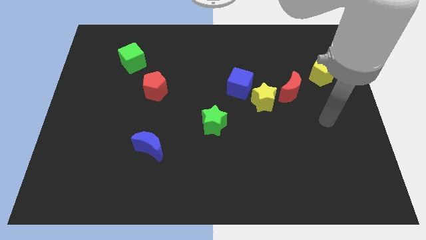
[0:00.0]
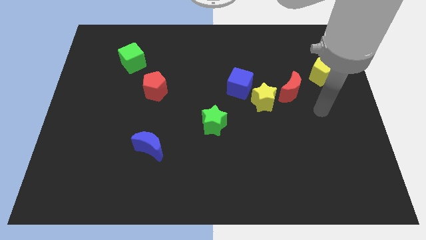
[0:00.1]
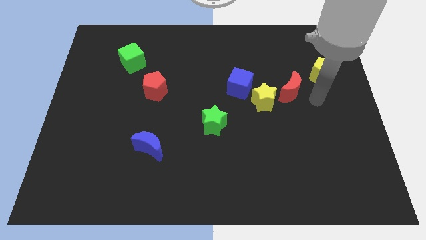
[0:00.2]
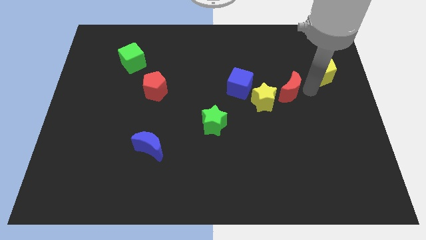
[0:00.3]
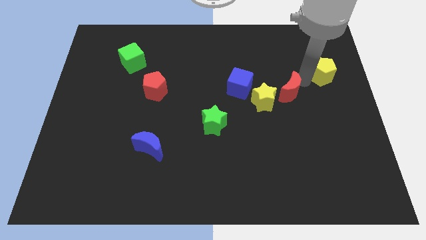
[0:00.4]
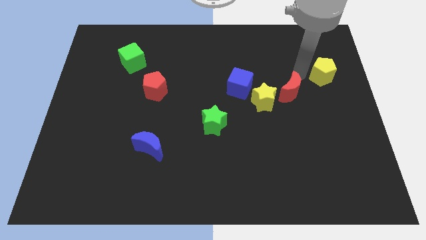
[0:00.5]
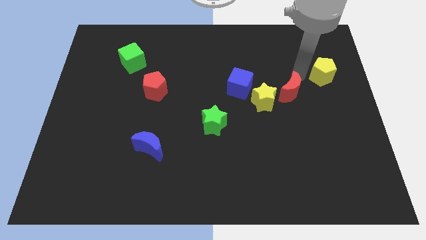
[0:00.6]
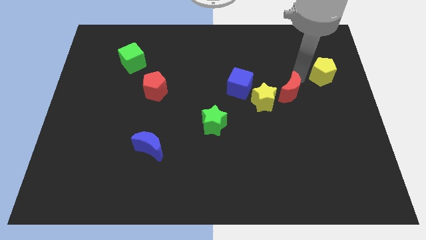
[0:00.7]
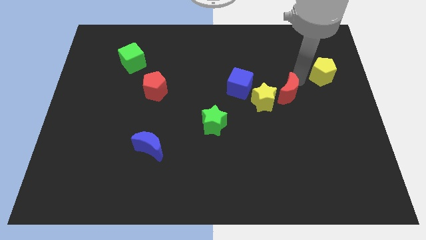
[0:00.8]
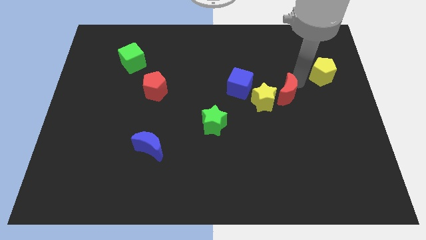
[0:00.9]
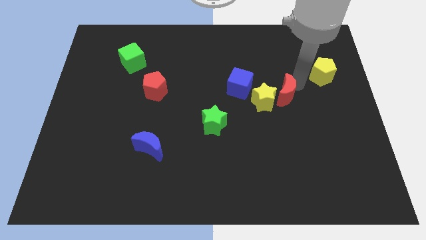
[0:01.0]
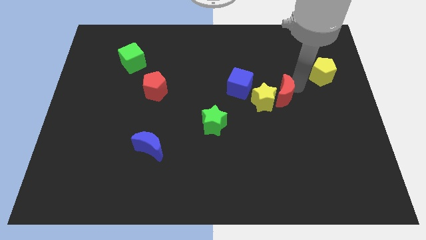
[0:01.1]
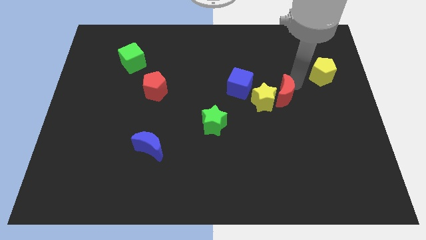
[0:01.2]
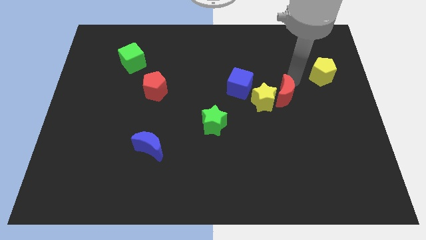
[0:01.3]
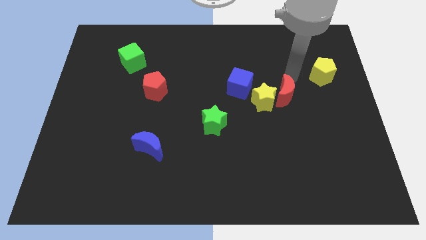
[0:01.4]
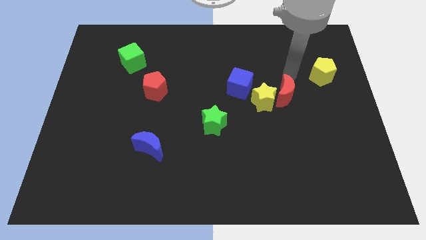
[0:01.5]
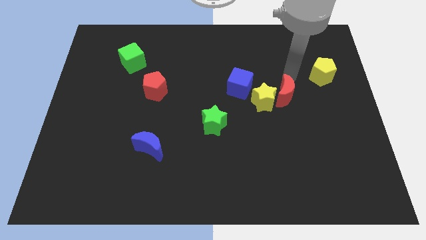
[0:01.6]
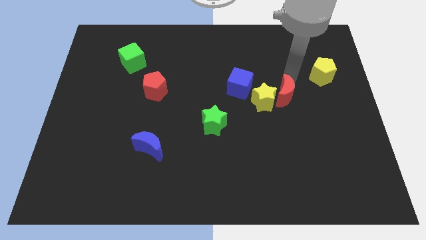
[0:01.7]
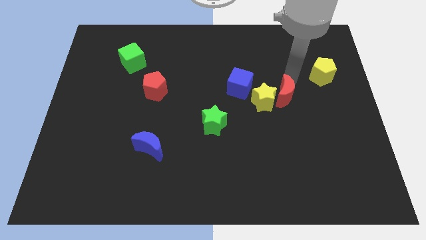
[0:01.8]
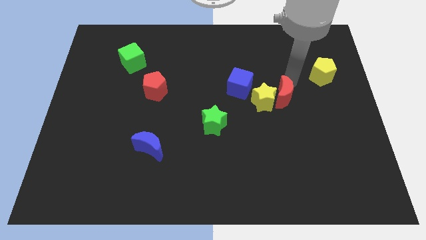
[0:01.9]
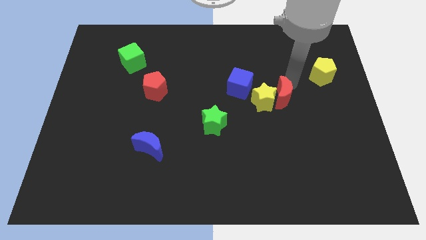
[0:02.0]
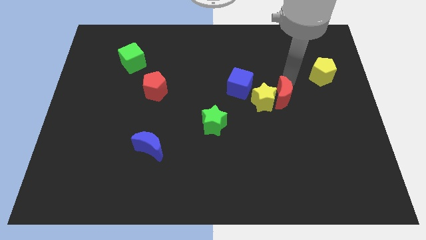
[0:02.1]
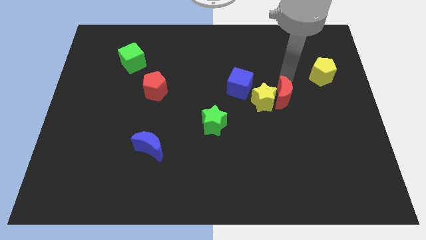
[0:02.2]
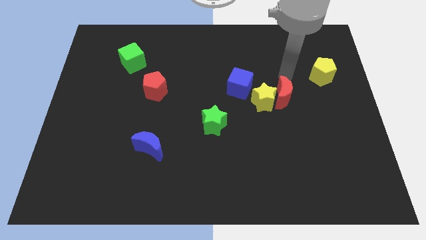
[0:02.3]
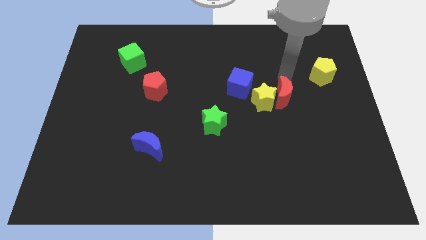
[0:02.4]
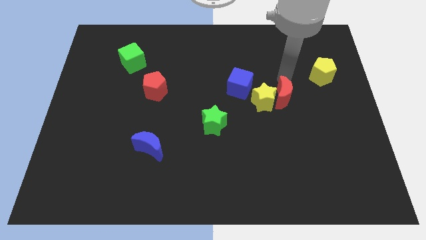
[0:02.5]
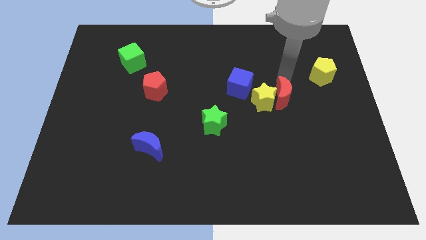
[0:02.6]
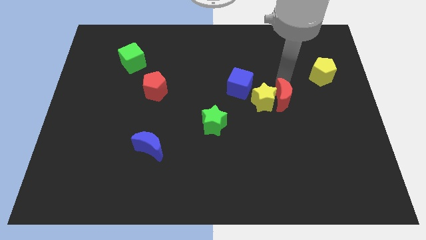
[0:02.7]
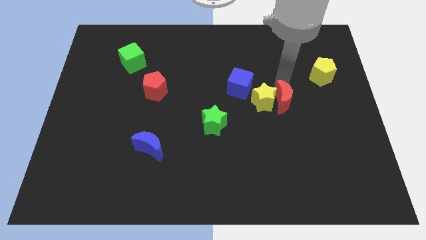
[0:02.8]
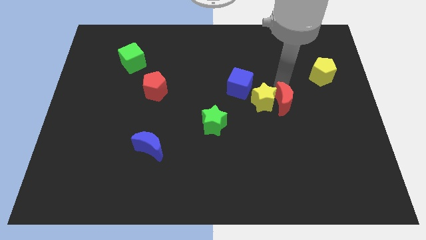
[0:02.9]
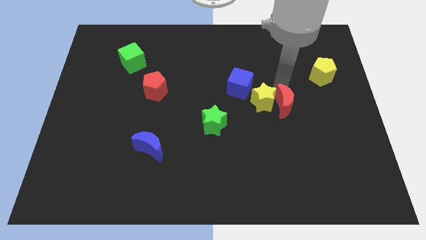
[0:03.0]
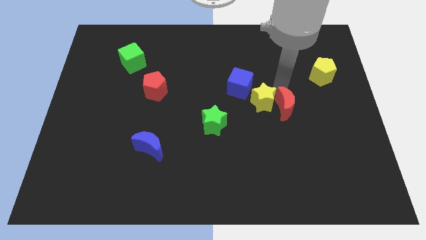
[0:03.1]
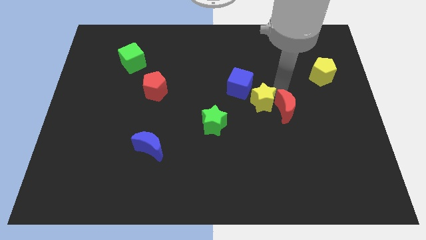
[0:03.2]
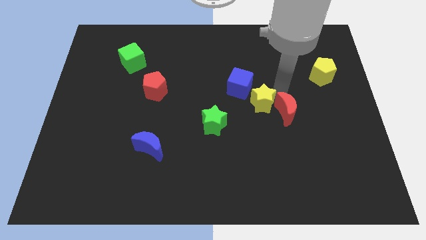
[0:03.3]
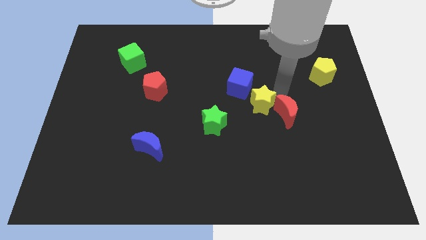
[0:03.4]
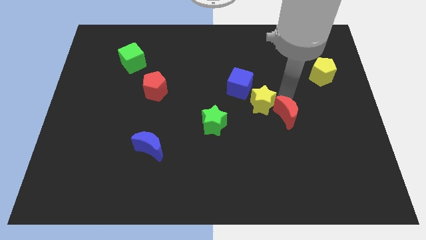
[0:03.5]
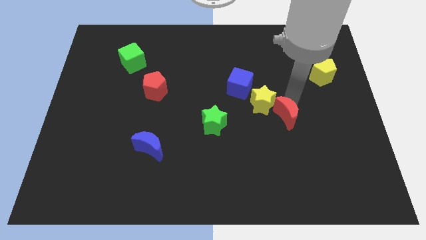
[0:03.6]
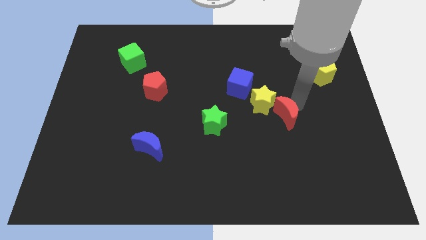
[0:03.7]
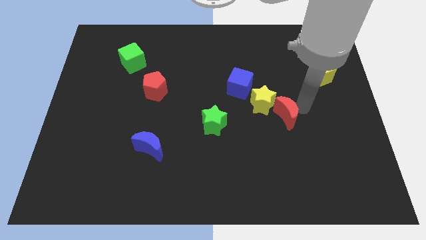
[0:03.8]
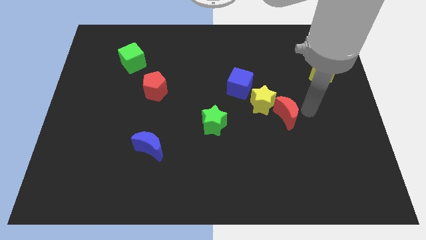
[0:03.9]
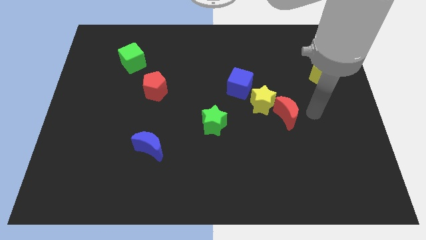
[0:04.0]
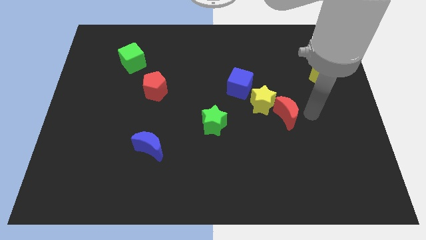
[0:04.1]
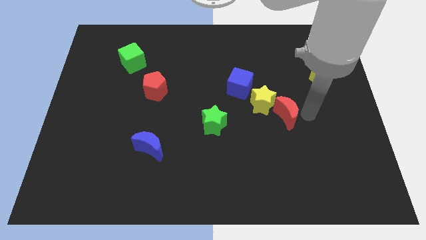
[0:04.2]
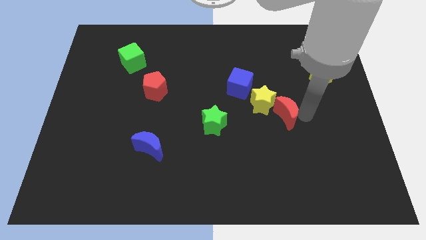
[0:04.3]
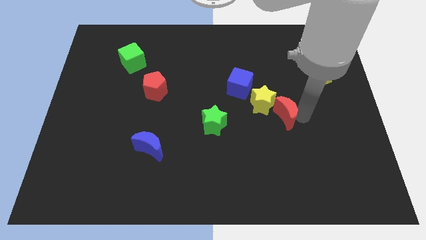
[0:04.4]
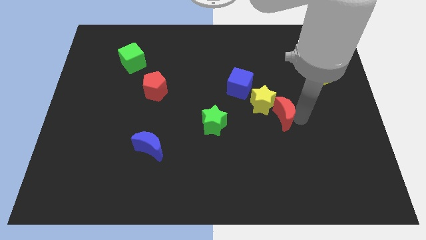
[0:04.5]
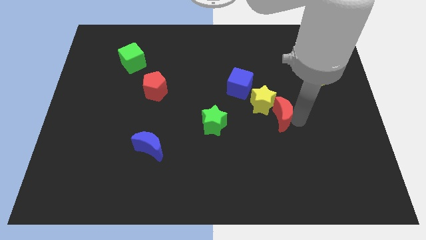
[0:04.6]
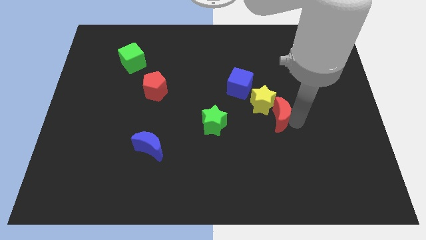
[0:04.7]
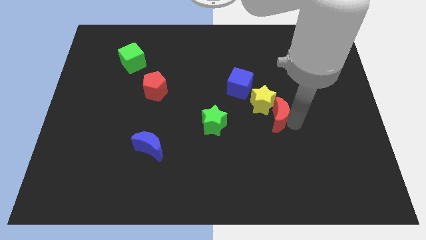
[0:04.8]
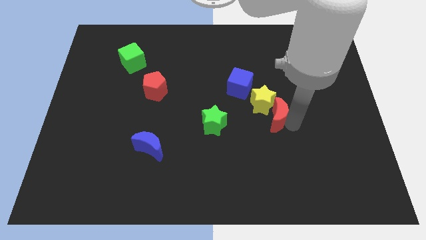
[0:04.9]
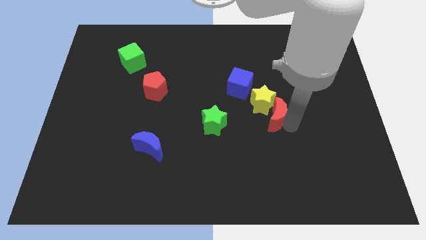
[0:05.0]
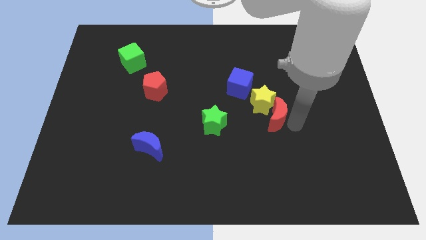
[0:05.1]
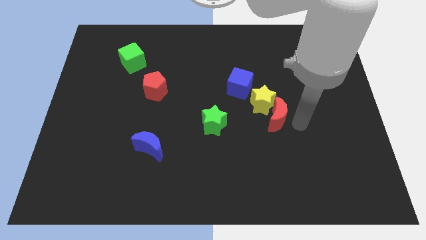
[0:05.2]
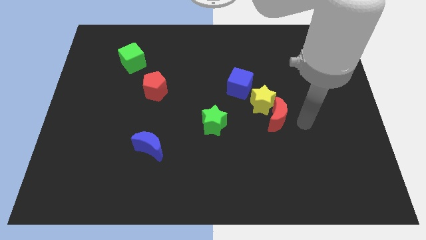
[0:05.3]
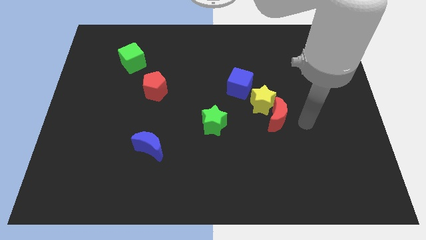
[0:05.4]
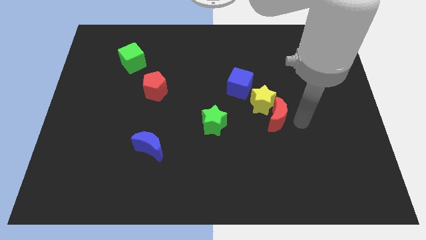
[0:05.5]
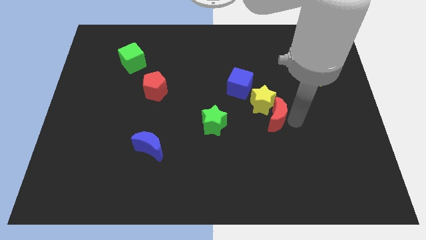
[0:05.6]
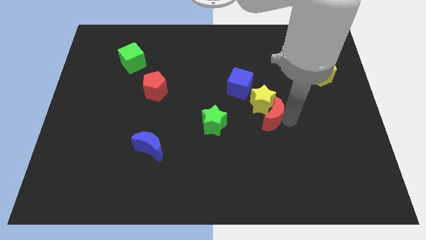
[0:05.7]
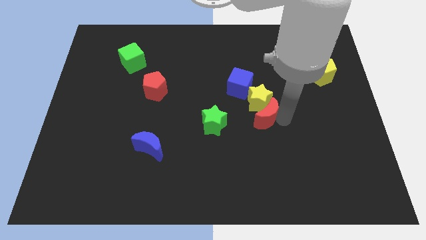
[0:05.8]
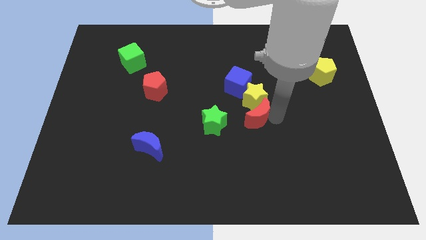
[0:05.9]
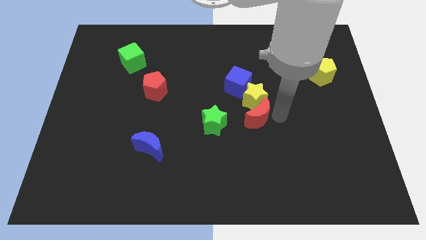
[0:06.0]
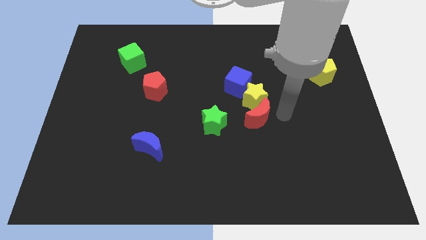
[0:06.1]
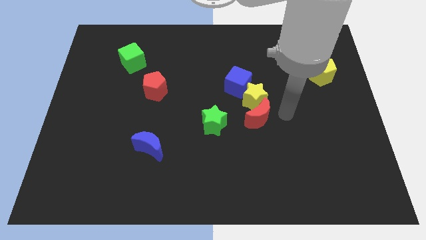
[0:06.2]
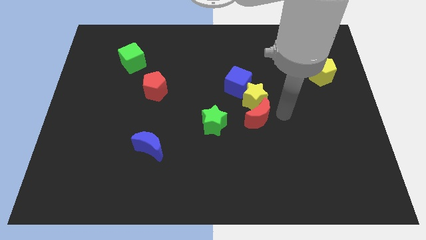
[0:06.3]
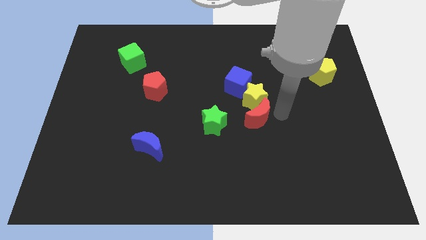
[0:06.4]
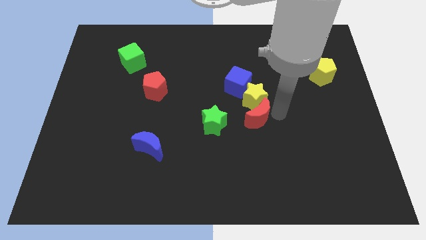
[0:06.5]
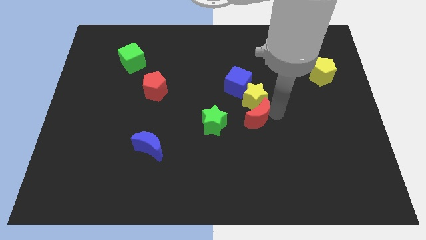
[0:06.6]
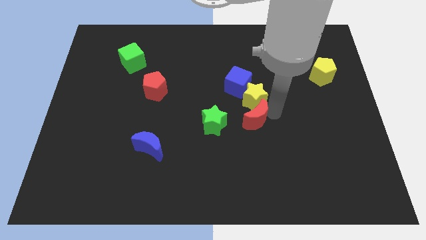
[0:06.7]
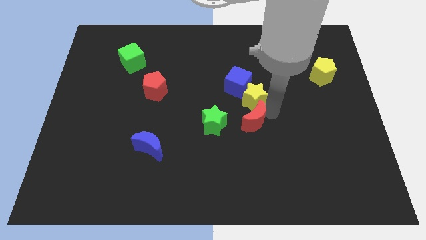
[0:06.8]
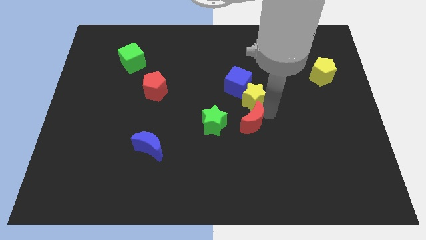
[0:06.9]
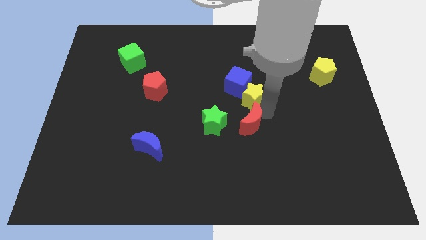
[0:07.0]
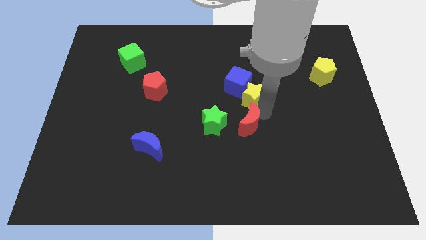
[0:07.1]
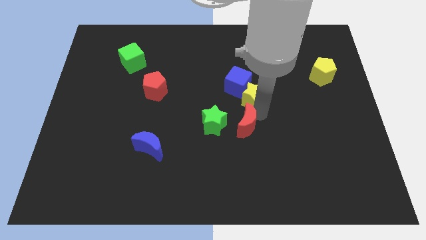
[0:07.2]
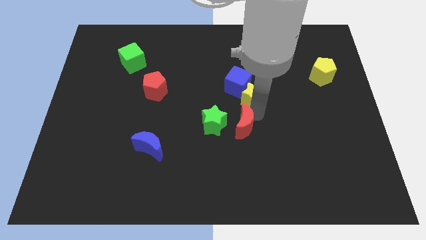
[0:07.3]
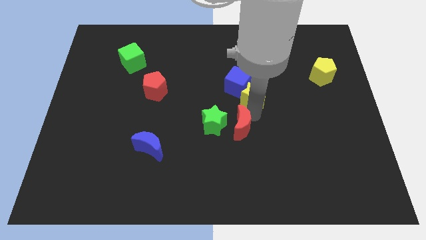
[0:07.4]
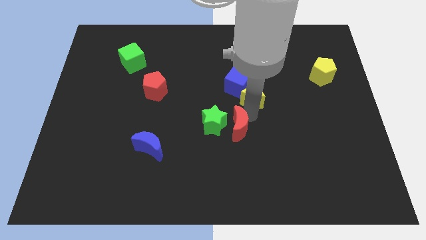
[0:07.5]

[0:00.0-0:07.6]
move the red moon close to the green star

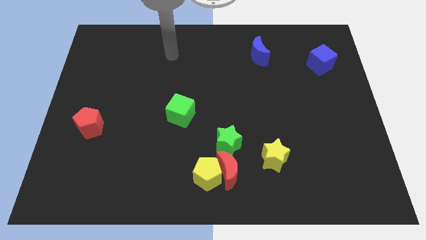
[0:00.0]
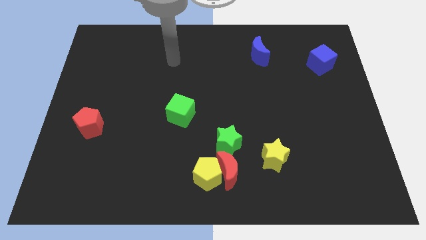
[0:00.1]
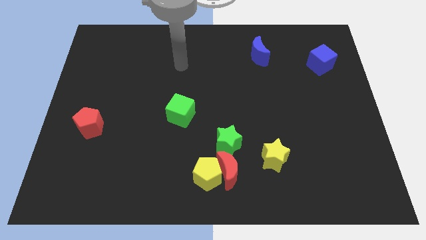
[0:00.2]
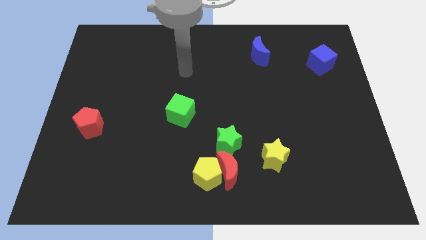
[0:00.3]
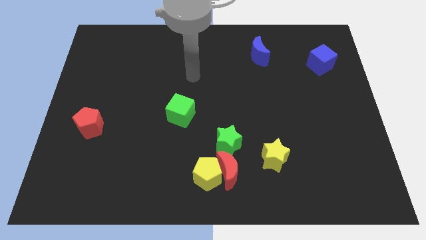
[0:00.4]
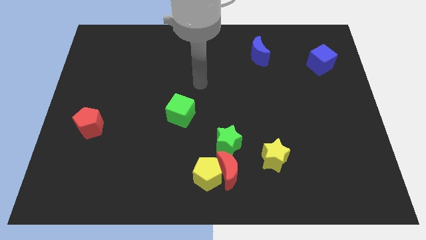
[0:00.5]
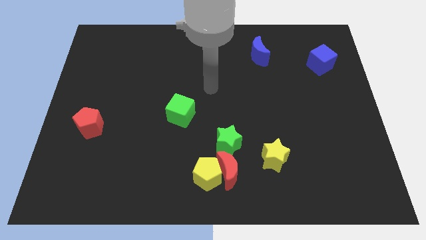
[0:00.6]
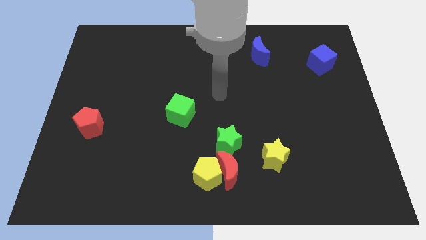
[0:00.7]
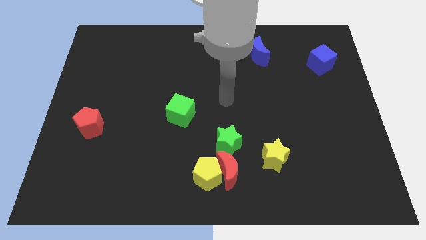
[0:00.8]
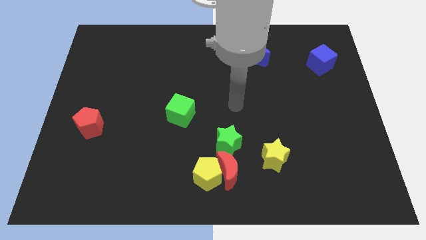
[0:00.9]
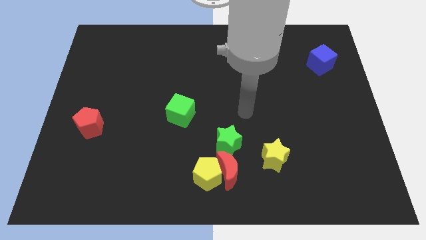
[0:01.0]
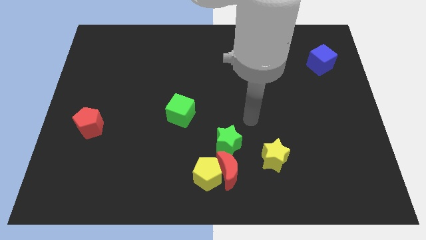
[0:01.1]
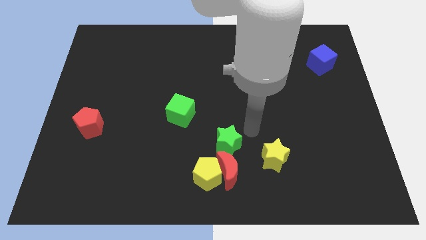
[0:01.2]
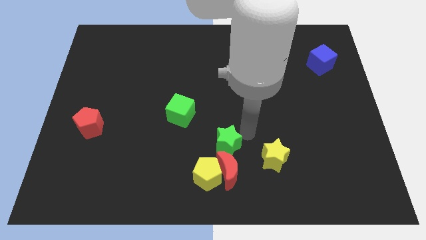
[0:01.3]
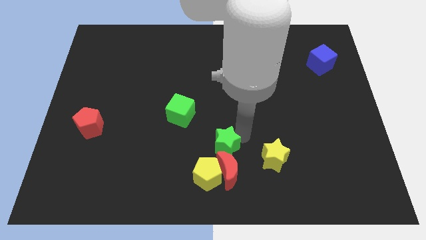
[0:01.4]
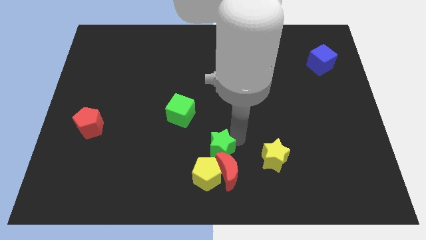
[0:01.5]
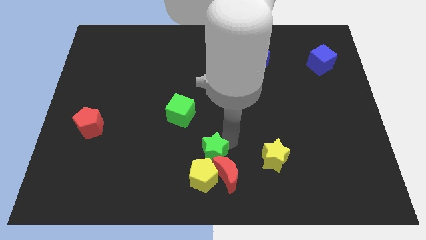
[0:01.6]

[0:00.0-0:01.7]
push the green star to the yellow pentagon
